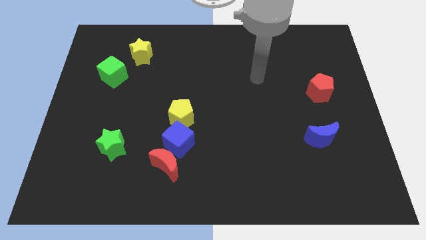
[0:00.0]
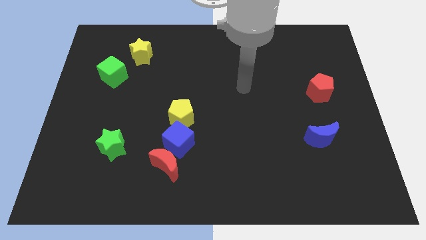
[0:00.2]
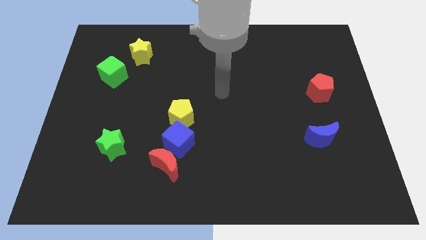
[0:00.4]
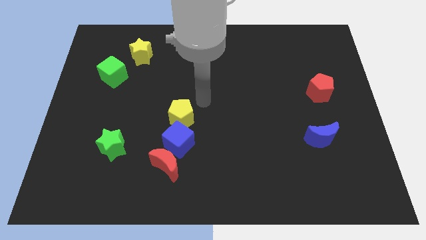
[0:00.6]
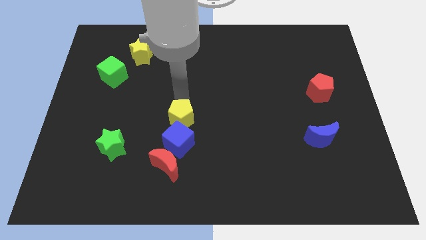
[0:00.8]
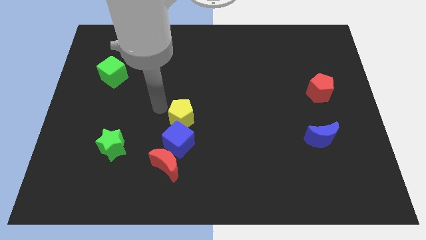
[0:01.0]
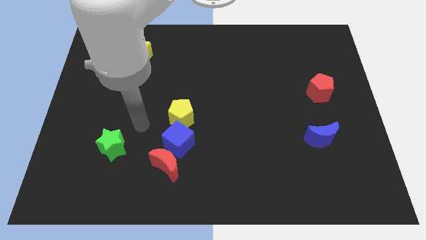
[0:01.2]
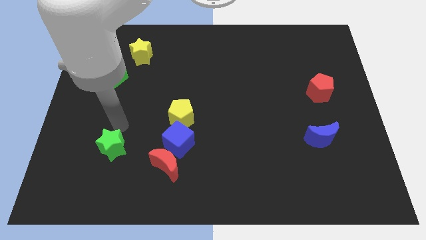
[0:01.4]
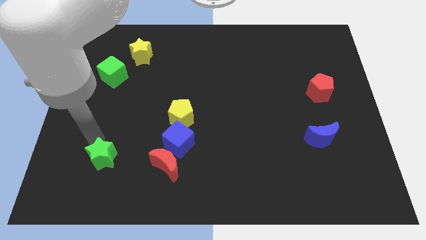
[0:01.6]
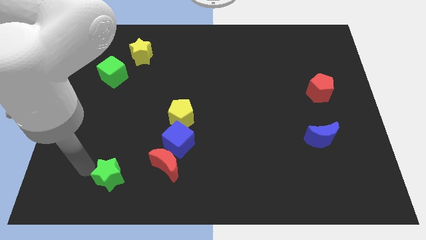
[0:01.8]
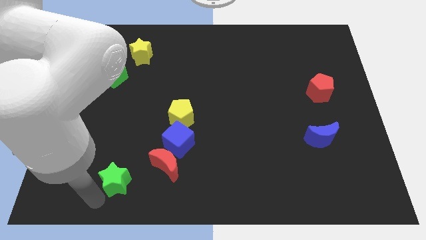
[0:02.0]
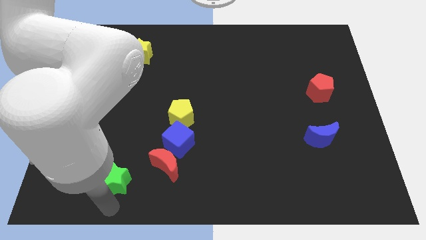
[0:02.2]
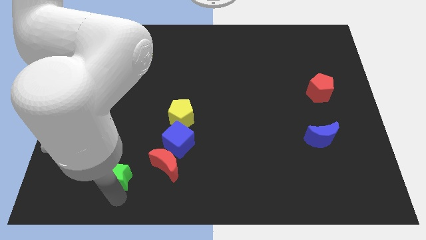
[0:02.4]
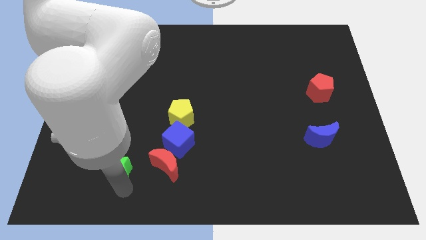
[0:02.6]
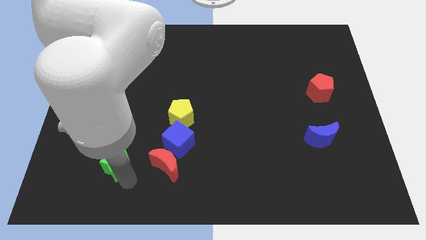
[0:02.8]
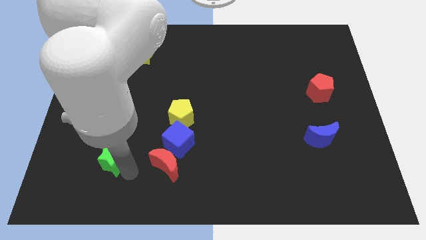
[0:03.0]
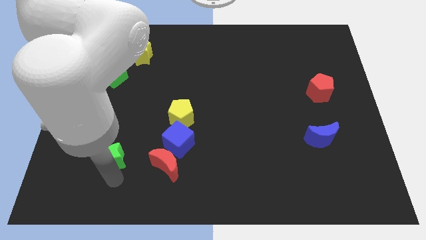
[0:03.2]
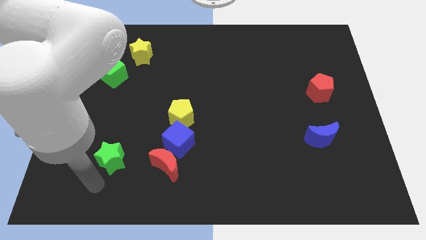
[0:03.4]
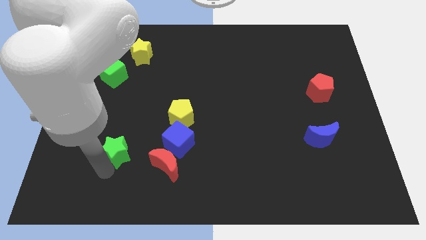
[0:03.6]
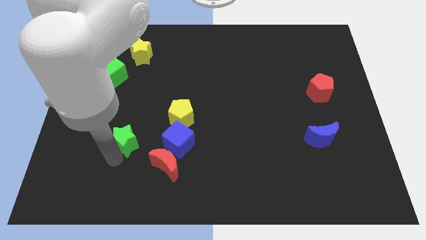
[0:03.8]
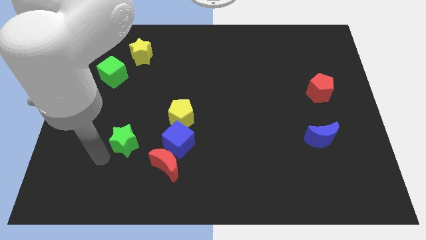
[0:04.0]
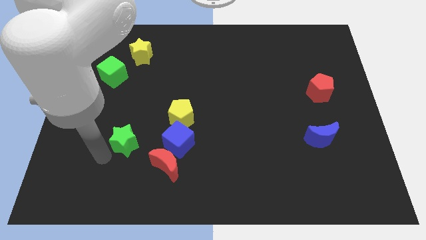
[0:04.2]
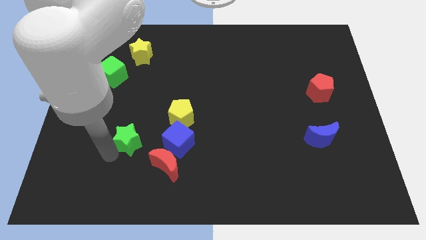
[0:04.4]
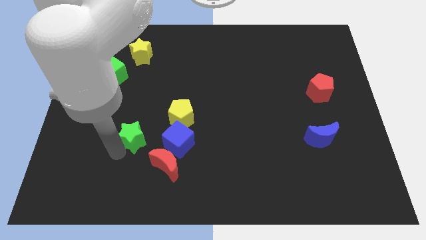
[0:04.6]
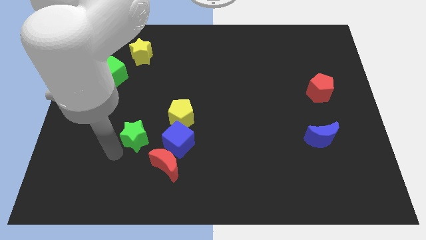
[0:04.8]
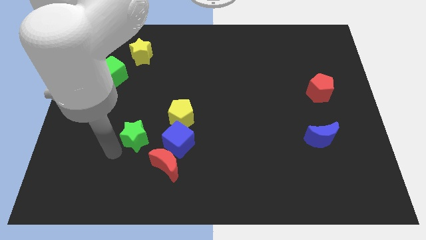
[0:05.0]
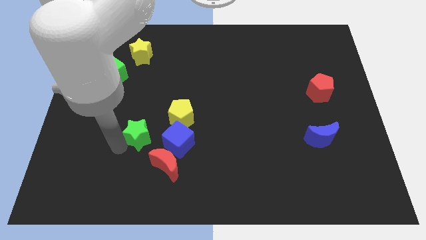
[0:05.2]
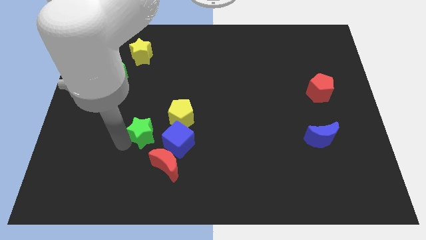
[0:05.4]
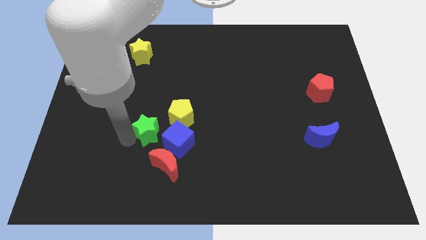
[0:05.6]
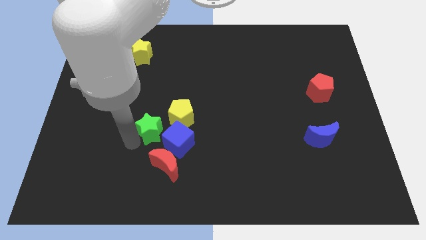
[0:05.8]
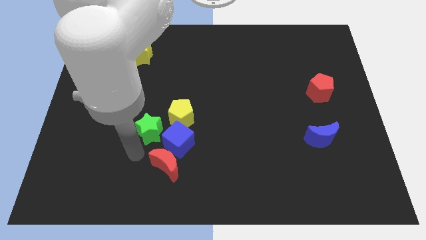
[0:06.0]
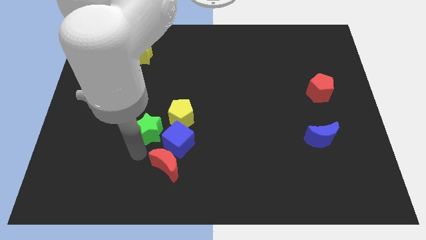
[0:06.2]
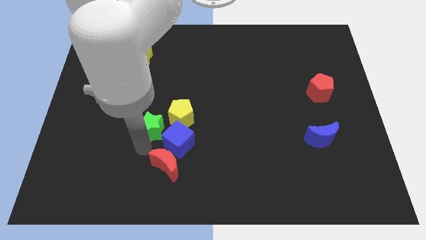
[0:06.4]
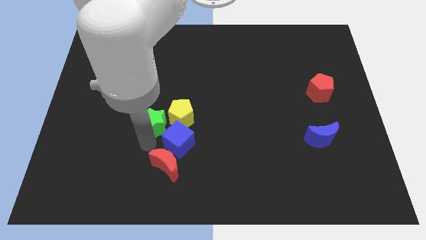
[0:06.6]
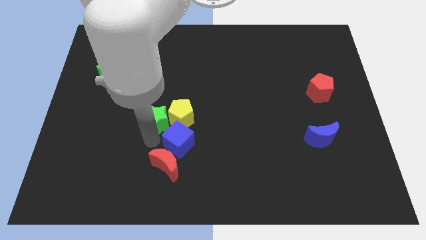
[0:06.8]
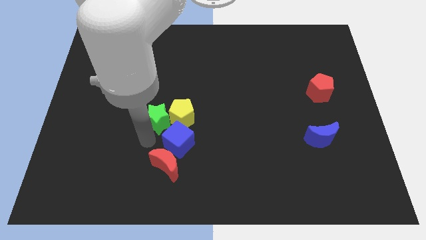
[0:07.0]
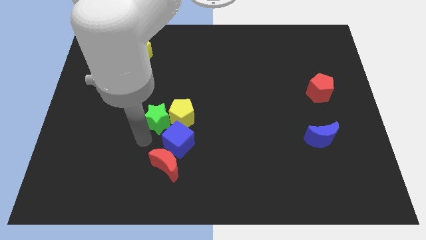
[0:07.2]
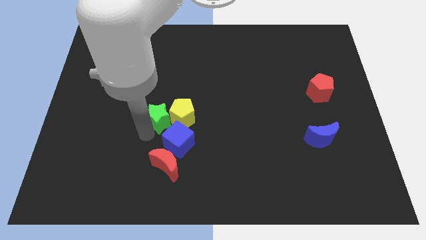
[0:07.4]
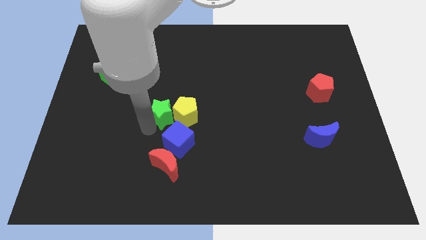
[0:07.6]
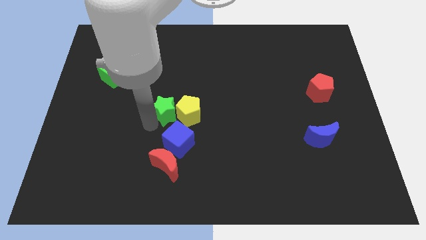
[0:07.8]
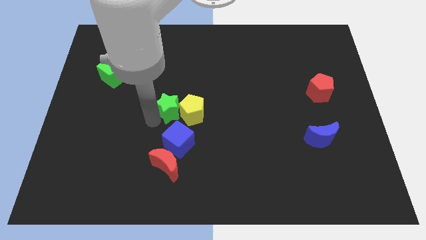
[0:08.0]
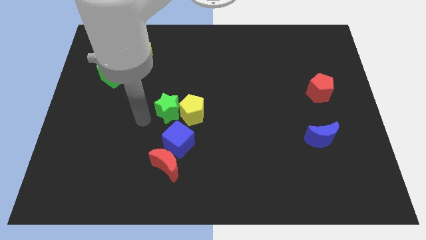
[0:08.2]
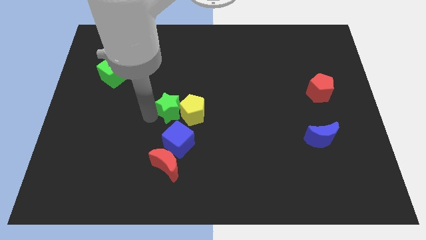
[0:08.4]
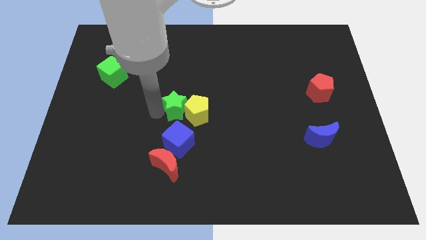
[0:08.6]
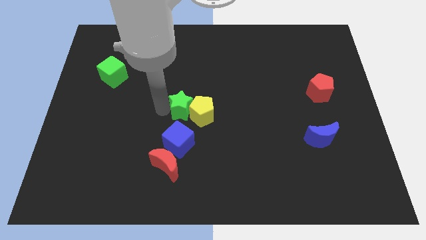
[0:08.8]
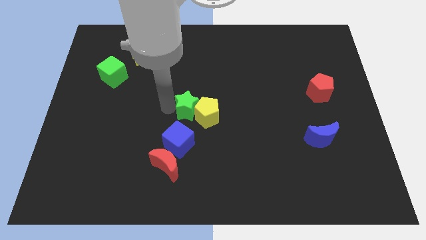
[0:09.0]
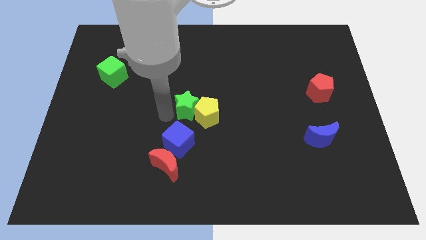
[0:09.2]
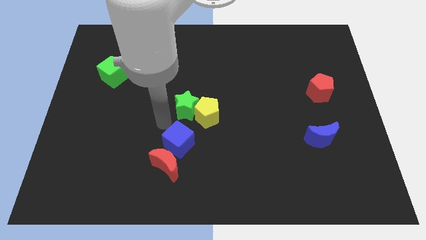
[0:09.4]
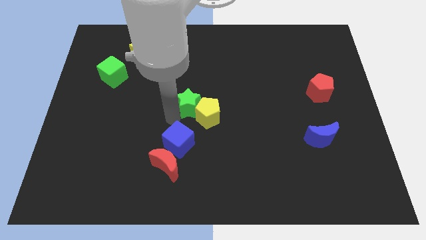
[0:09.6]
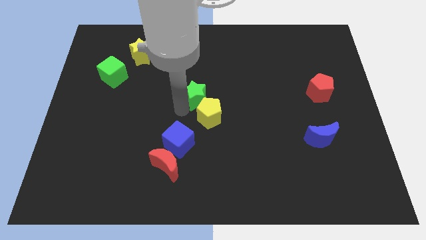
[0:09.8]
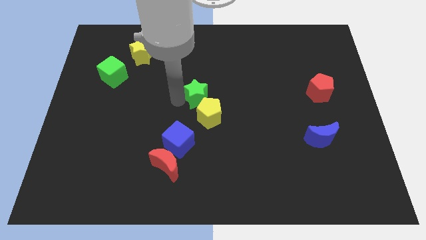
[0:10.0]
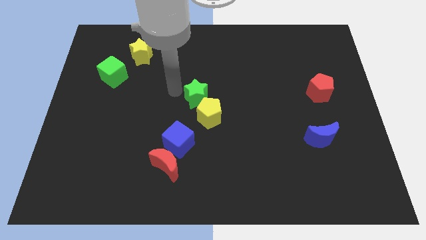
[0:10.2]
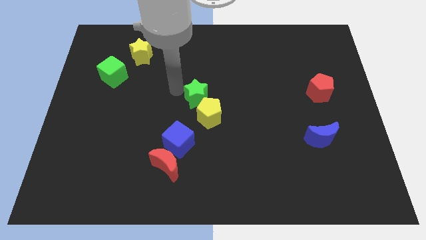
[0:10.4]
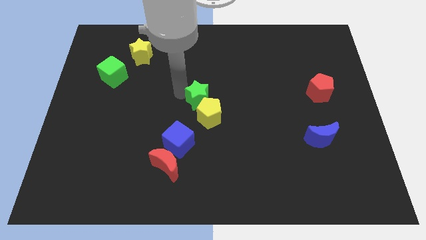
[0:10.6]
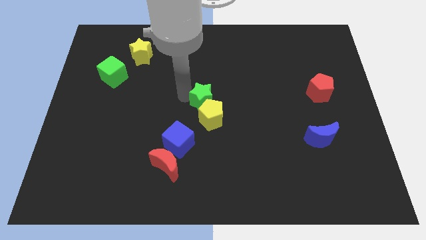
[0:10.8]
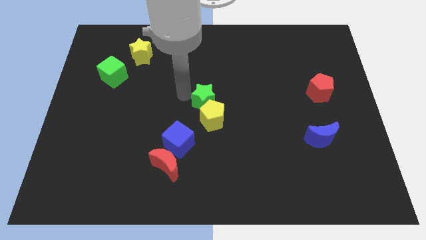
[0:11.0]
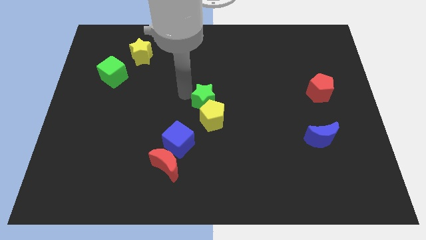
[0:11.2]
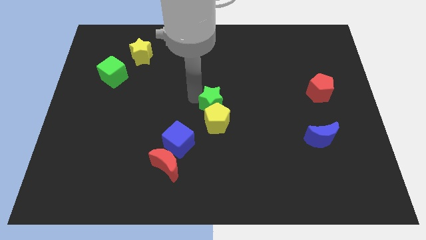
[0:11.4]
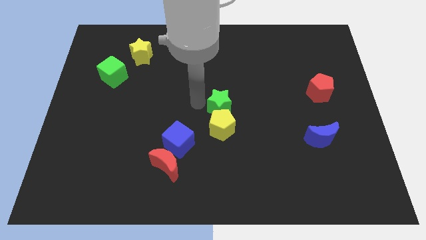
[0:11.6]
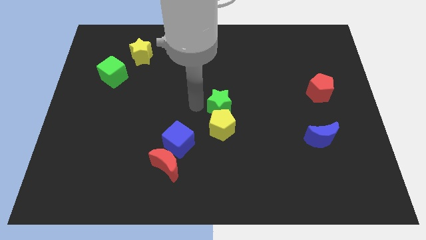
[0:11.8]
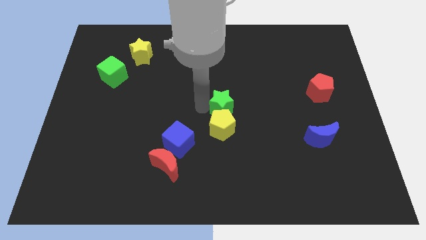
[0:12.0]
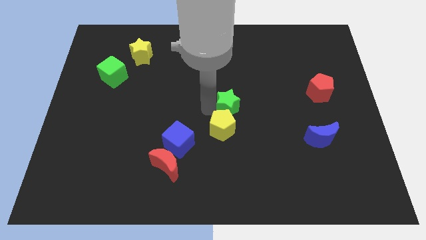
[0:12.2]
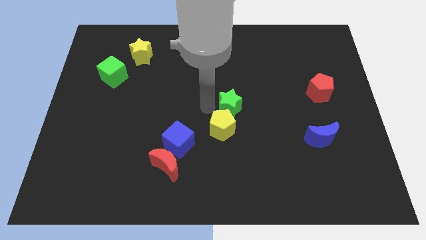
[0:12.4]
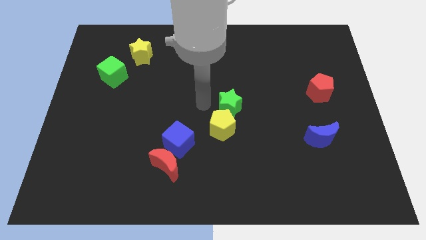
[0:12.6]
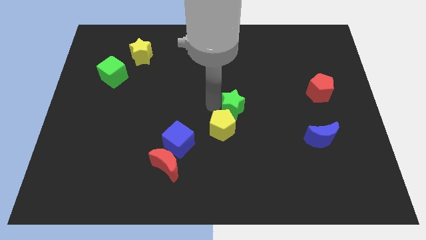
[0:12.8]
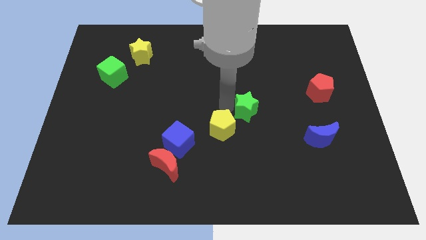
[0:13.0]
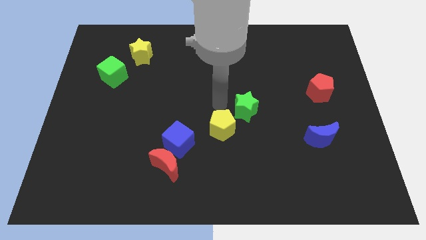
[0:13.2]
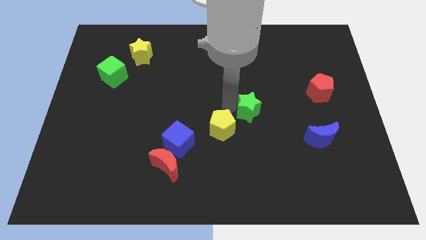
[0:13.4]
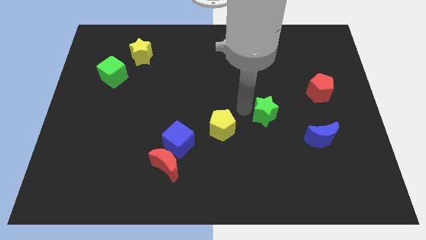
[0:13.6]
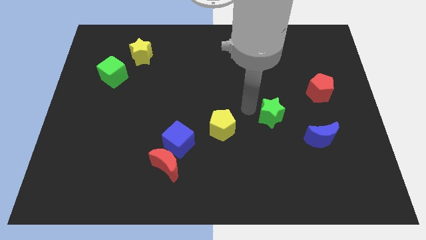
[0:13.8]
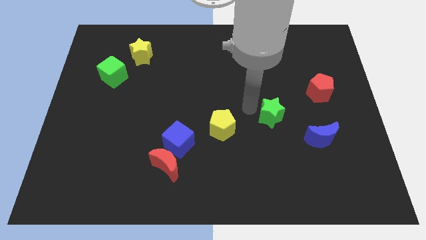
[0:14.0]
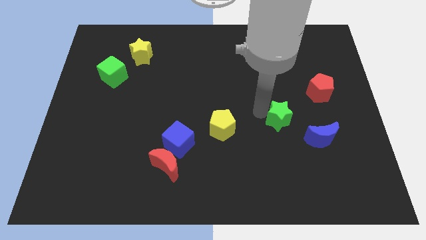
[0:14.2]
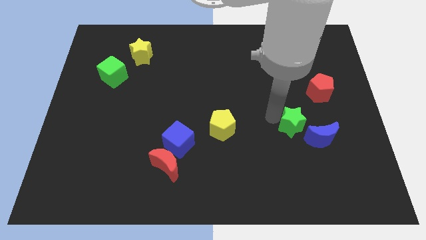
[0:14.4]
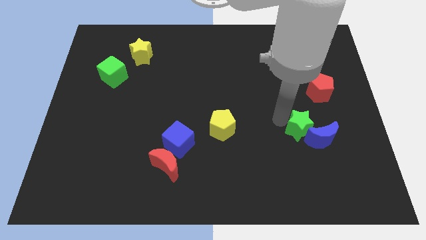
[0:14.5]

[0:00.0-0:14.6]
move the green star next to the blue moon
